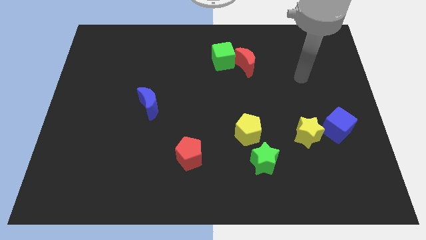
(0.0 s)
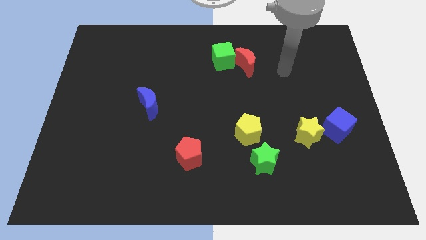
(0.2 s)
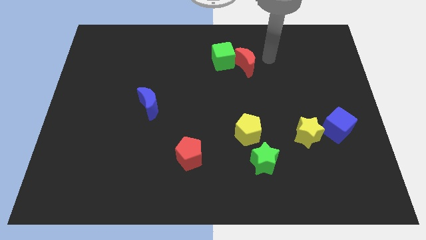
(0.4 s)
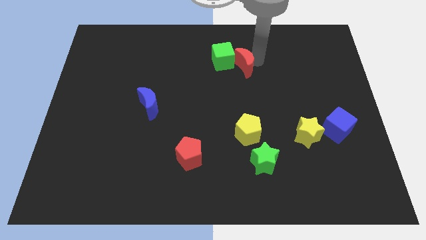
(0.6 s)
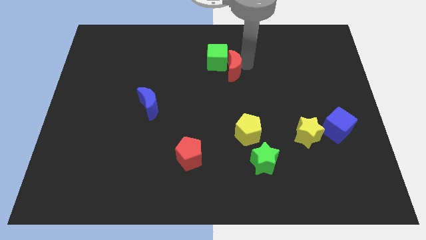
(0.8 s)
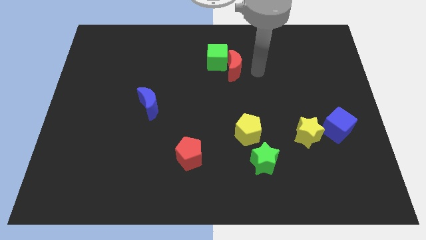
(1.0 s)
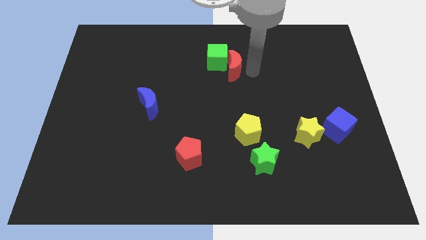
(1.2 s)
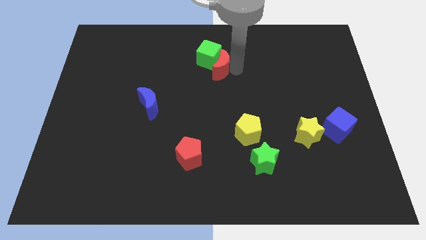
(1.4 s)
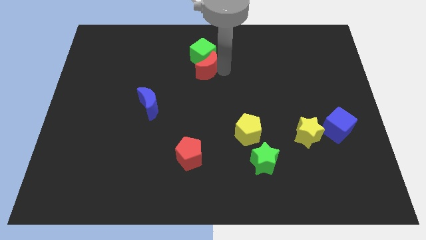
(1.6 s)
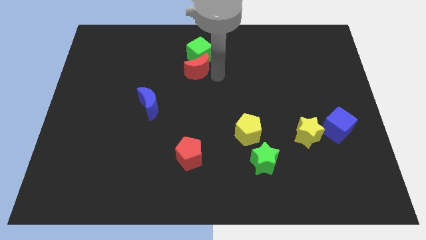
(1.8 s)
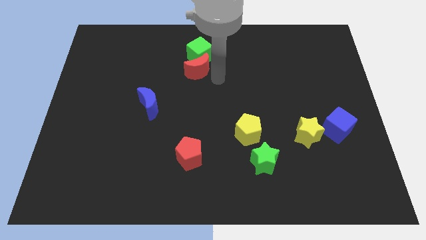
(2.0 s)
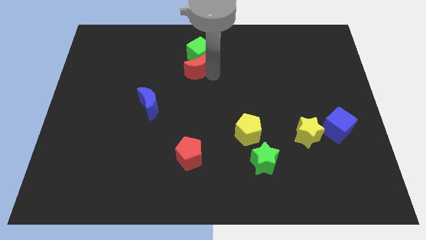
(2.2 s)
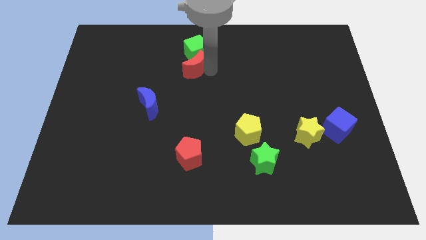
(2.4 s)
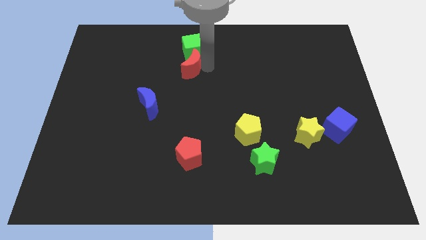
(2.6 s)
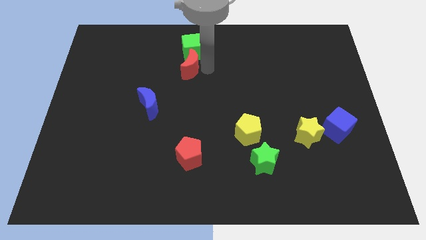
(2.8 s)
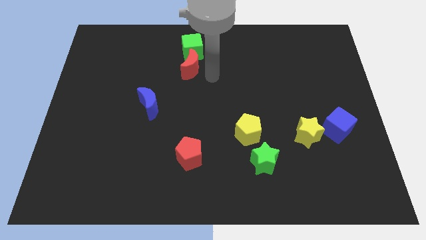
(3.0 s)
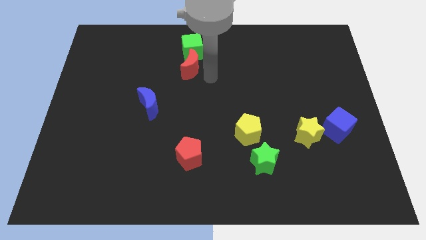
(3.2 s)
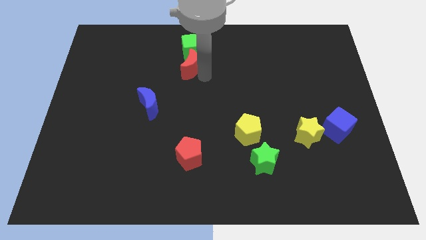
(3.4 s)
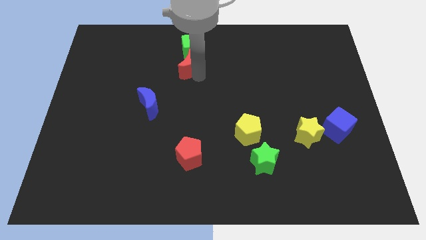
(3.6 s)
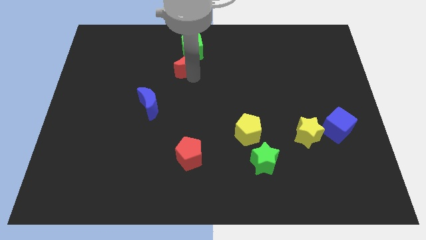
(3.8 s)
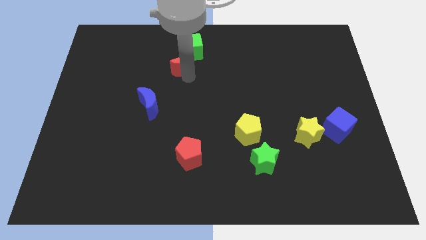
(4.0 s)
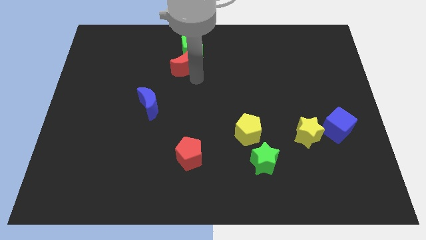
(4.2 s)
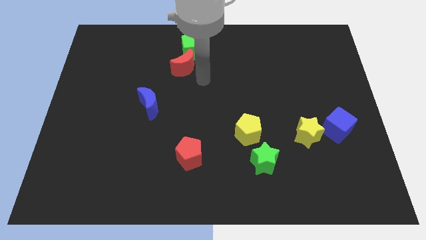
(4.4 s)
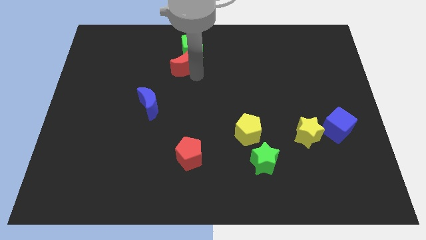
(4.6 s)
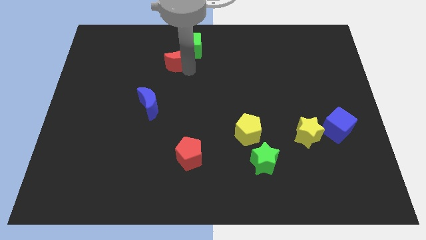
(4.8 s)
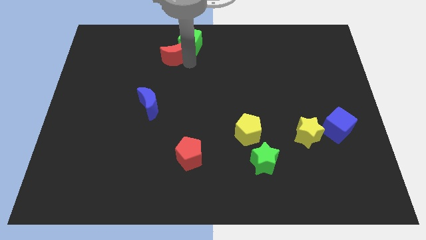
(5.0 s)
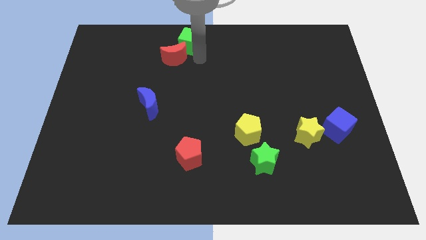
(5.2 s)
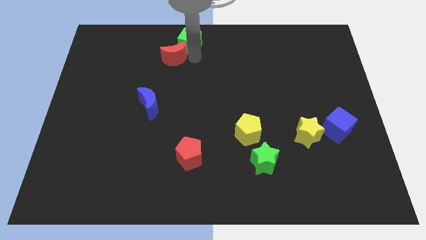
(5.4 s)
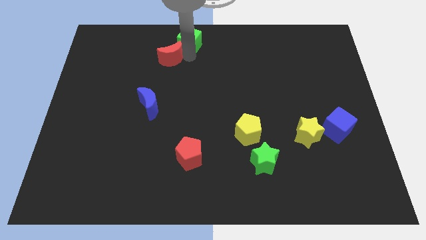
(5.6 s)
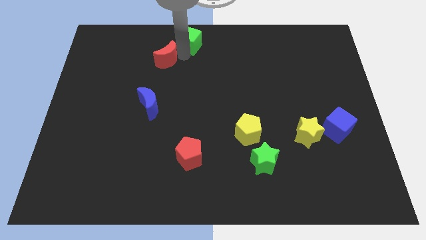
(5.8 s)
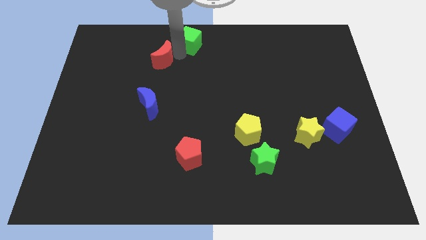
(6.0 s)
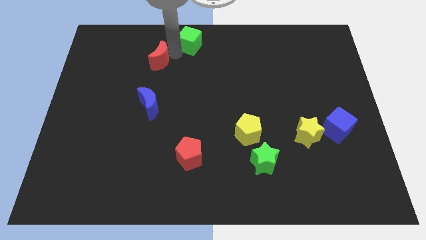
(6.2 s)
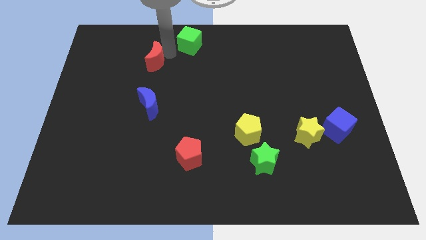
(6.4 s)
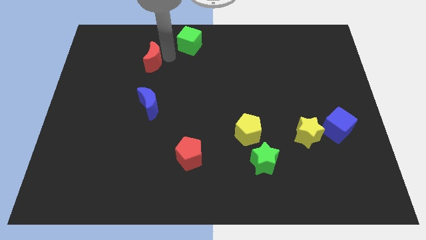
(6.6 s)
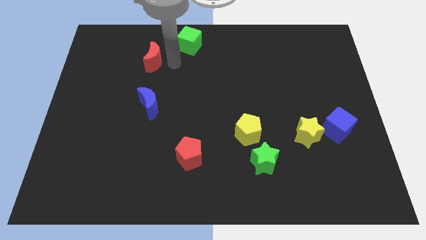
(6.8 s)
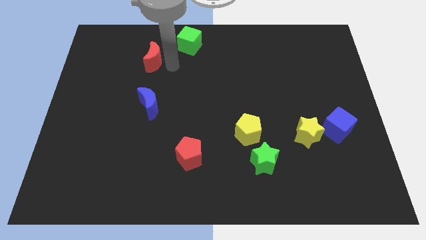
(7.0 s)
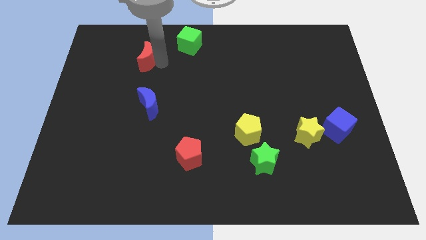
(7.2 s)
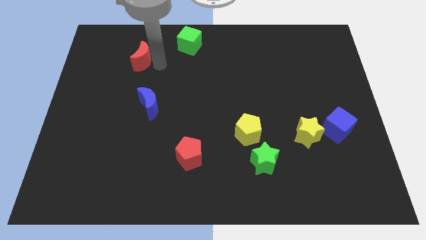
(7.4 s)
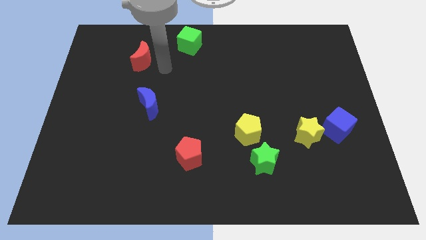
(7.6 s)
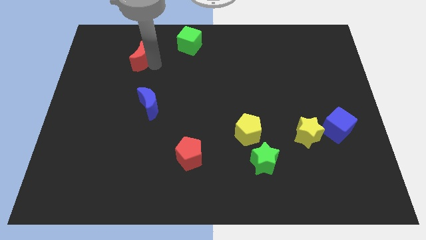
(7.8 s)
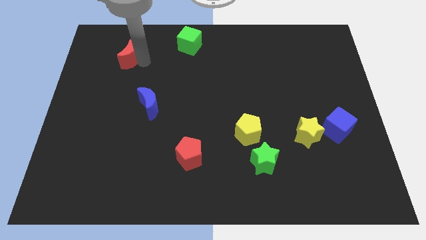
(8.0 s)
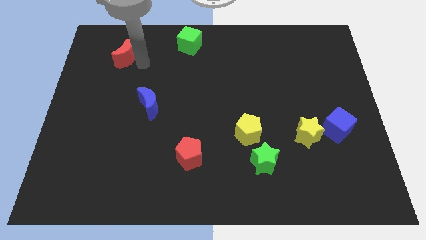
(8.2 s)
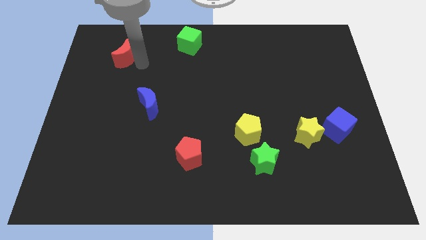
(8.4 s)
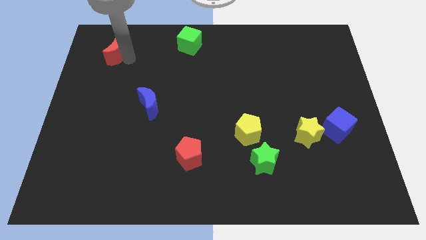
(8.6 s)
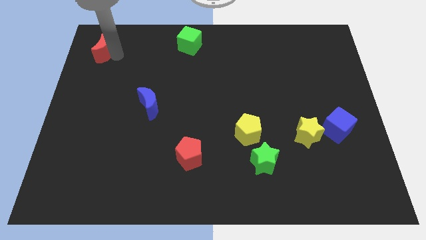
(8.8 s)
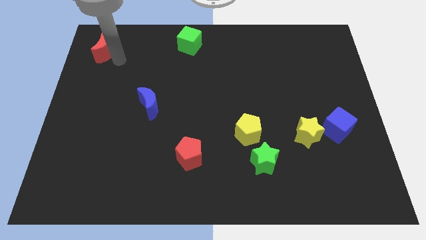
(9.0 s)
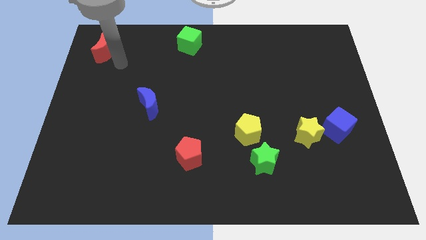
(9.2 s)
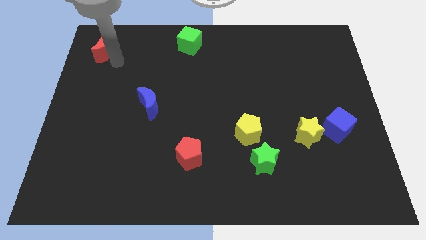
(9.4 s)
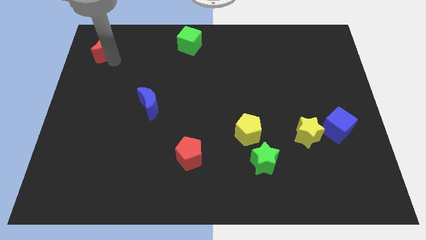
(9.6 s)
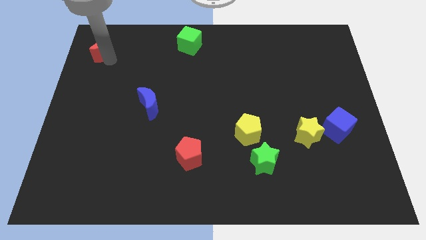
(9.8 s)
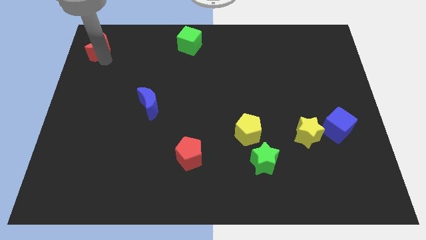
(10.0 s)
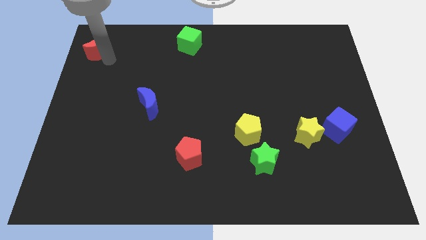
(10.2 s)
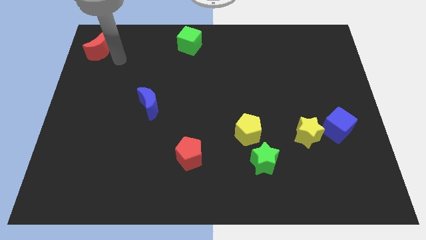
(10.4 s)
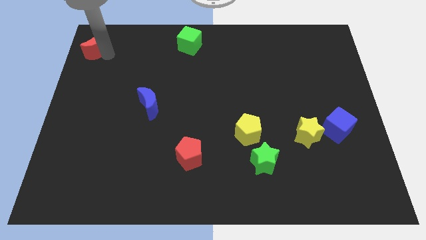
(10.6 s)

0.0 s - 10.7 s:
push the red moon to the upper left corner

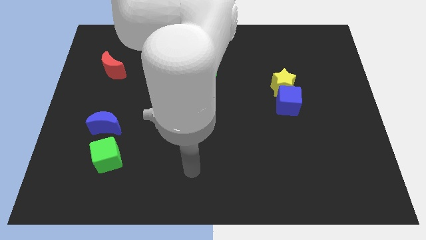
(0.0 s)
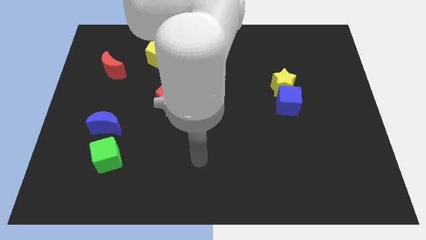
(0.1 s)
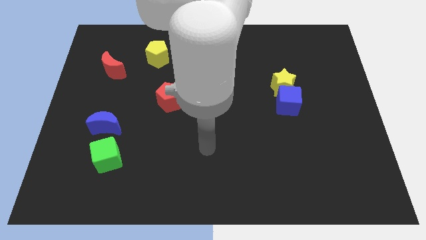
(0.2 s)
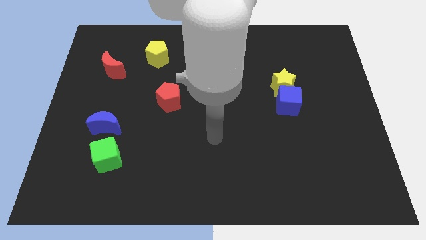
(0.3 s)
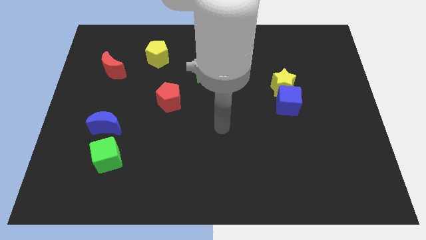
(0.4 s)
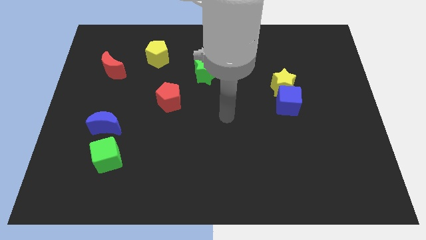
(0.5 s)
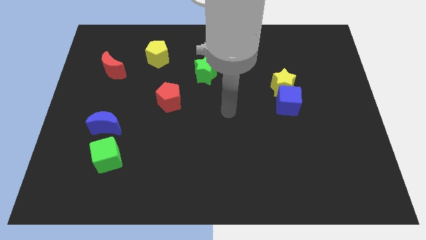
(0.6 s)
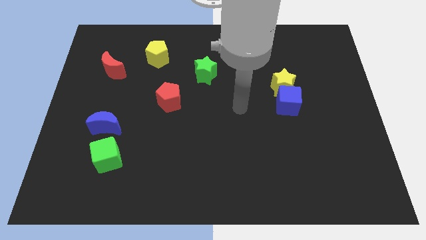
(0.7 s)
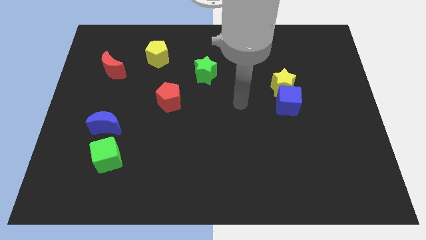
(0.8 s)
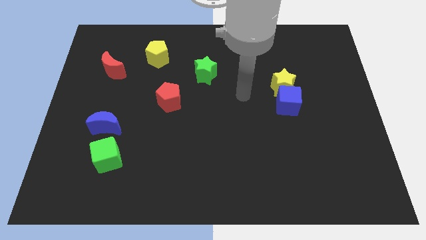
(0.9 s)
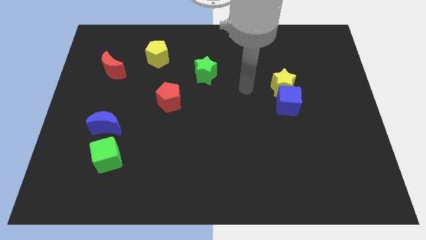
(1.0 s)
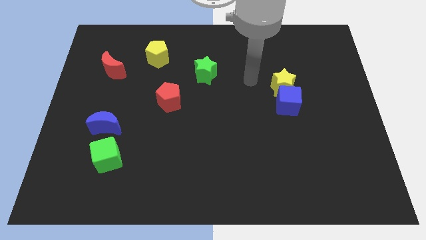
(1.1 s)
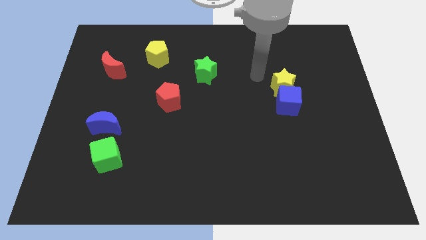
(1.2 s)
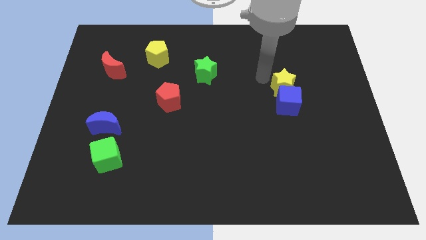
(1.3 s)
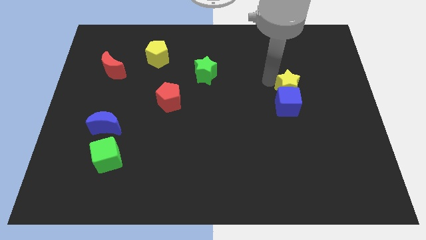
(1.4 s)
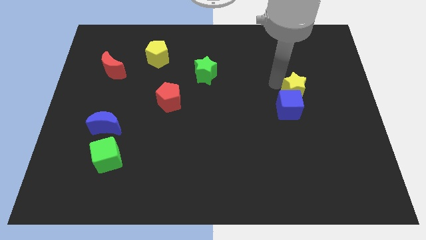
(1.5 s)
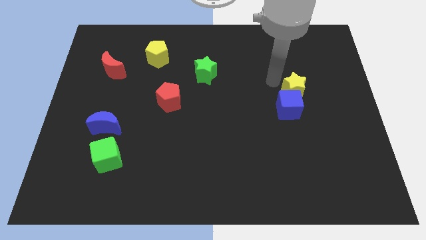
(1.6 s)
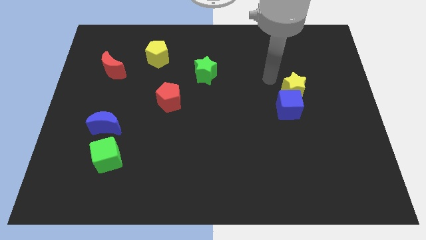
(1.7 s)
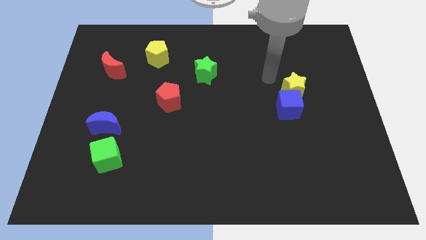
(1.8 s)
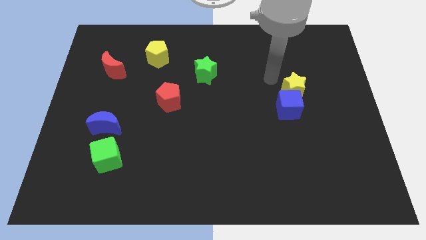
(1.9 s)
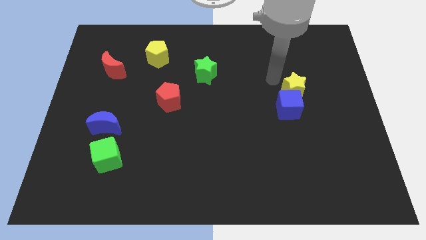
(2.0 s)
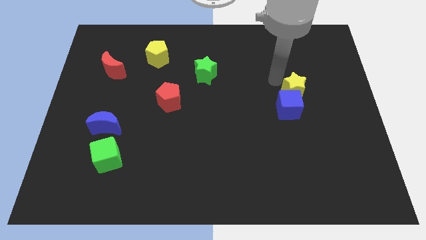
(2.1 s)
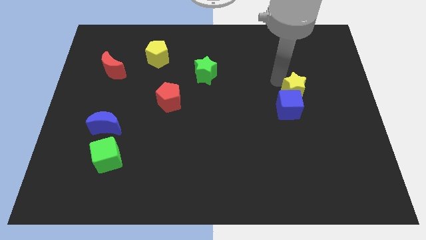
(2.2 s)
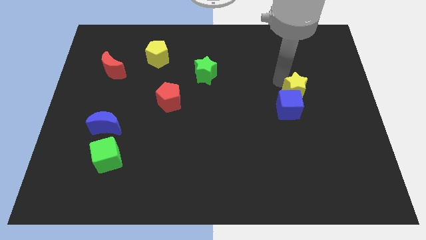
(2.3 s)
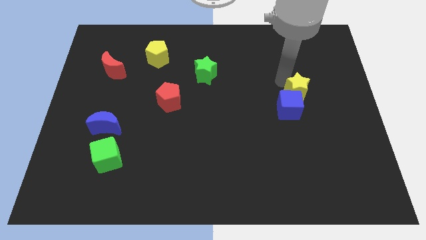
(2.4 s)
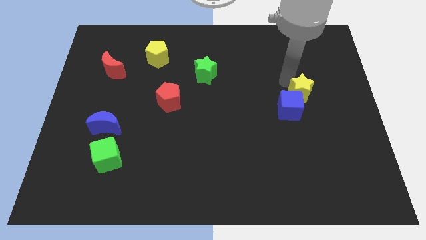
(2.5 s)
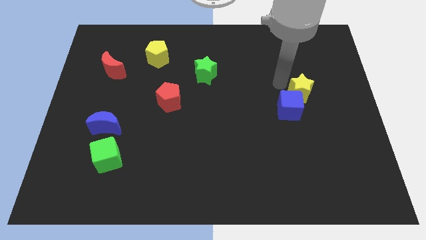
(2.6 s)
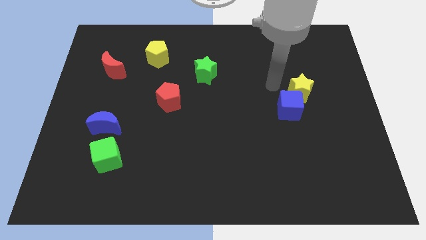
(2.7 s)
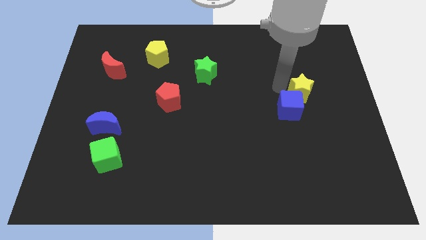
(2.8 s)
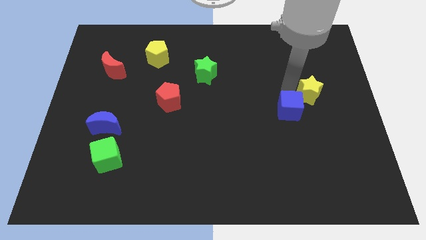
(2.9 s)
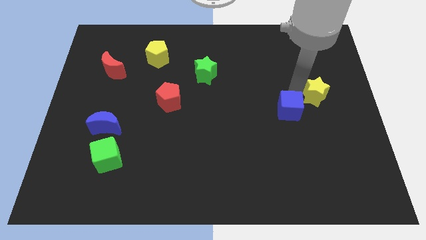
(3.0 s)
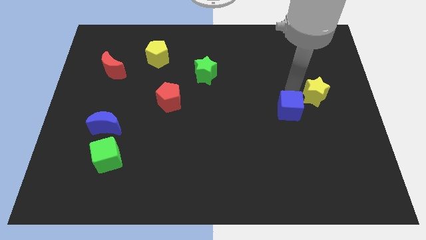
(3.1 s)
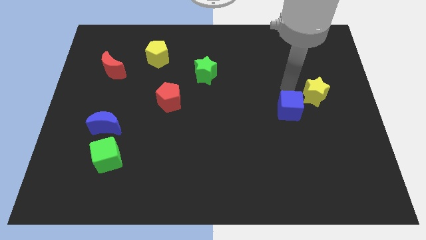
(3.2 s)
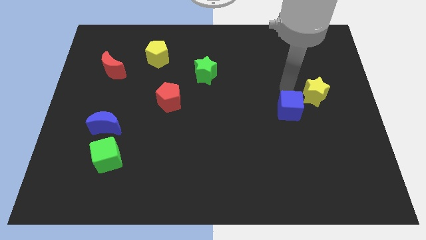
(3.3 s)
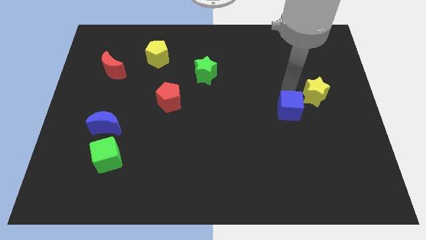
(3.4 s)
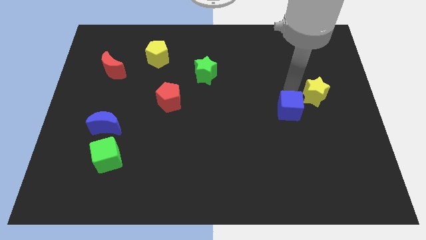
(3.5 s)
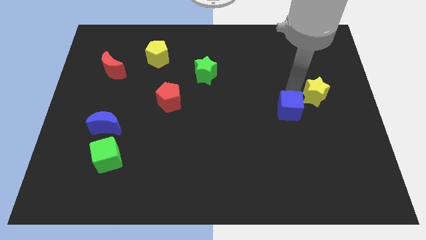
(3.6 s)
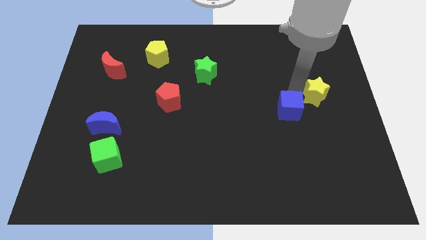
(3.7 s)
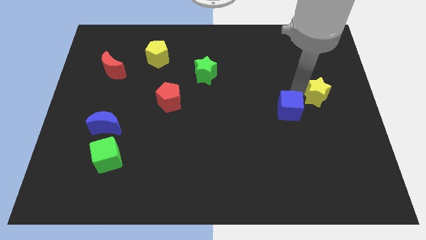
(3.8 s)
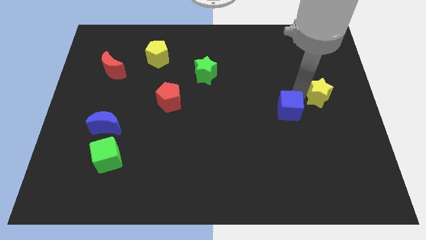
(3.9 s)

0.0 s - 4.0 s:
move the yellow star to the right side
